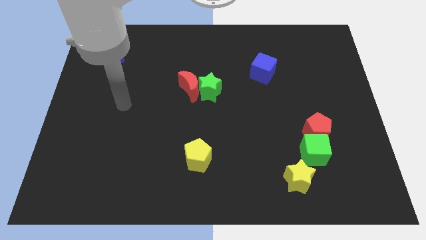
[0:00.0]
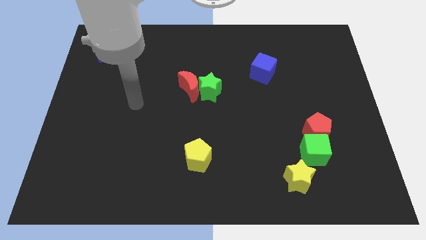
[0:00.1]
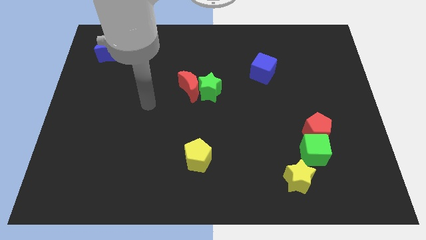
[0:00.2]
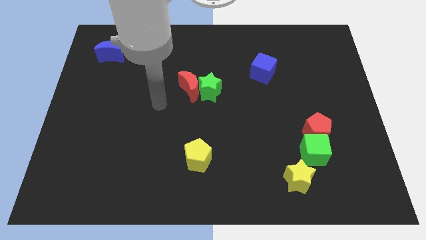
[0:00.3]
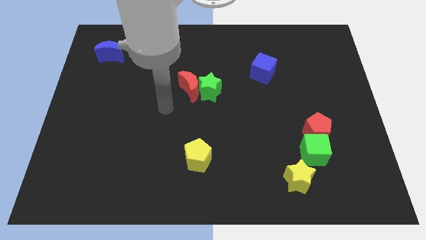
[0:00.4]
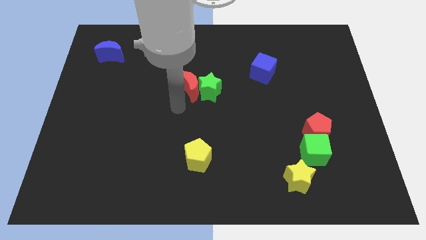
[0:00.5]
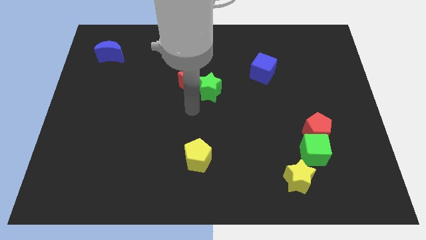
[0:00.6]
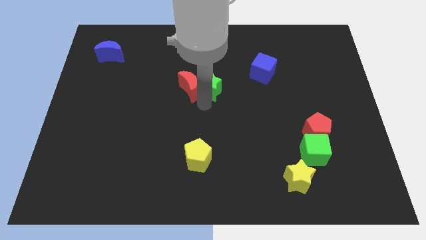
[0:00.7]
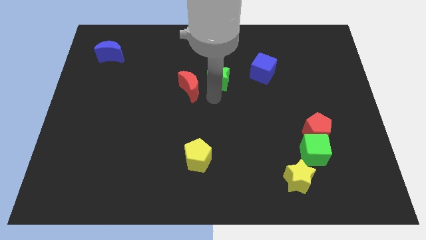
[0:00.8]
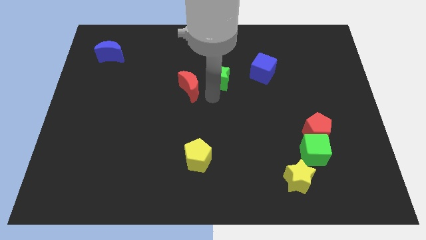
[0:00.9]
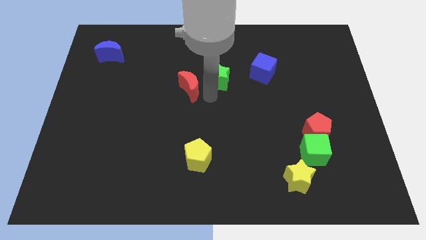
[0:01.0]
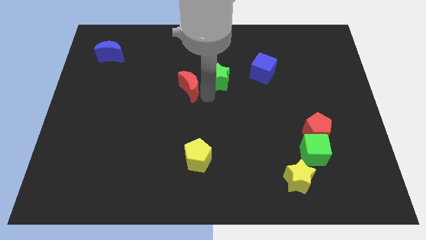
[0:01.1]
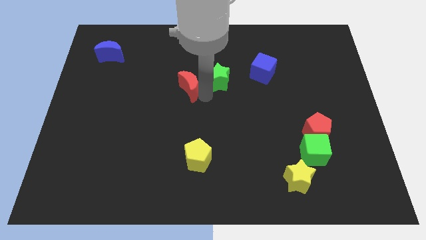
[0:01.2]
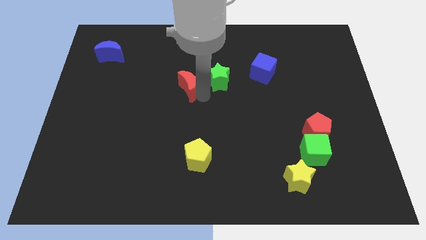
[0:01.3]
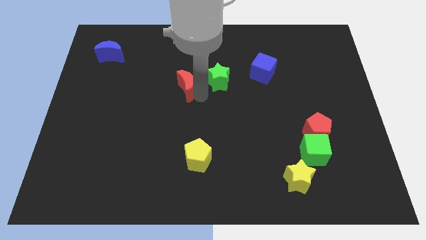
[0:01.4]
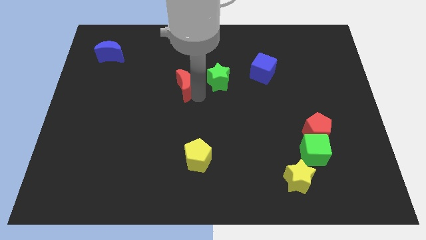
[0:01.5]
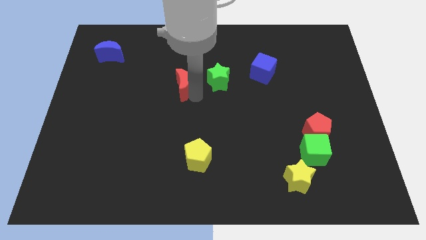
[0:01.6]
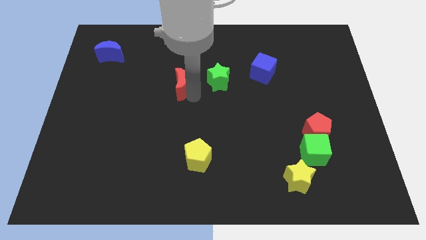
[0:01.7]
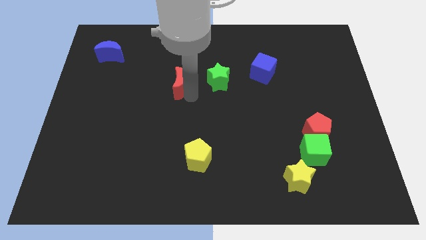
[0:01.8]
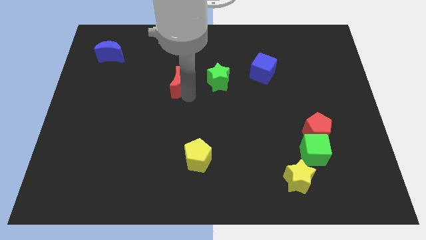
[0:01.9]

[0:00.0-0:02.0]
move the red moon away from the green star

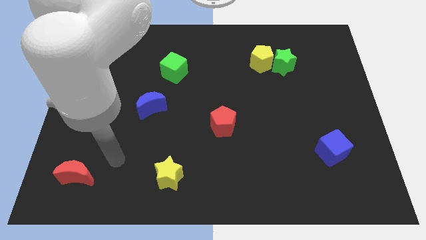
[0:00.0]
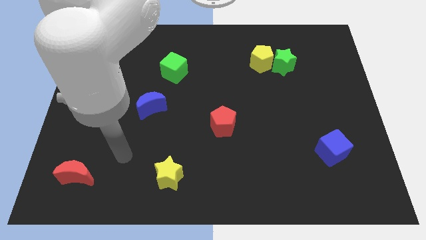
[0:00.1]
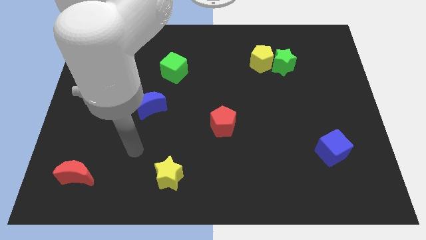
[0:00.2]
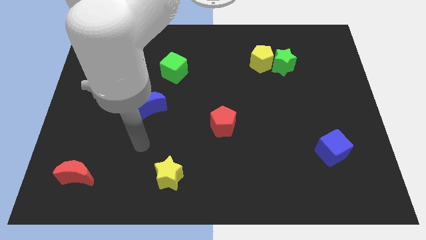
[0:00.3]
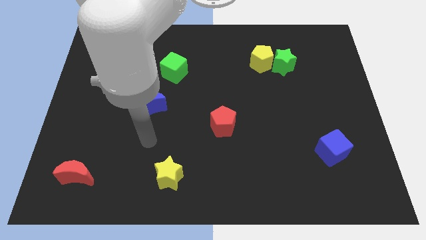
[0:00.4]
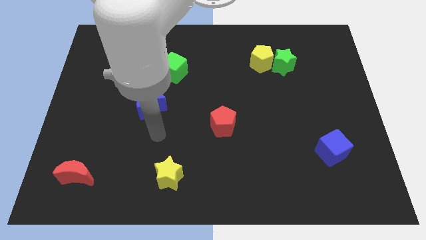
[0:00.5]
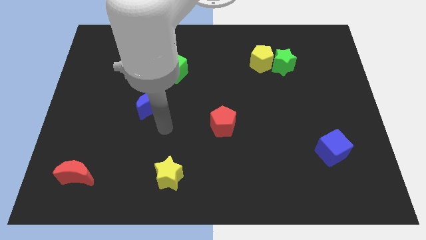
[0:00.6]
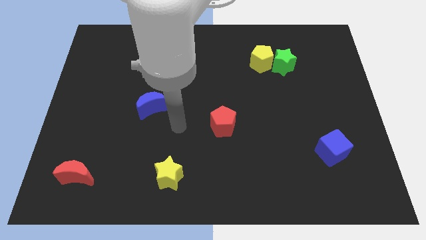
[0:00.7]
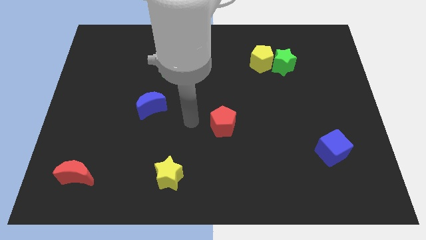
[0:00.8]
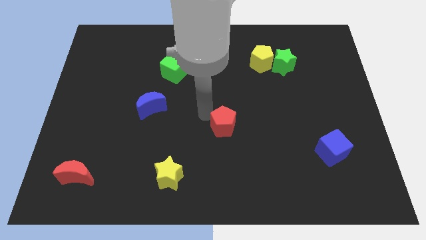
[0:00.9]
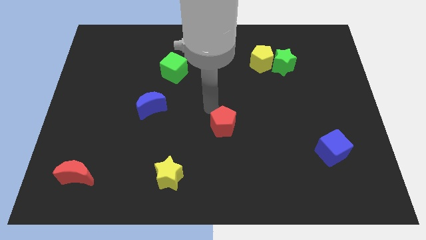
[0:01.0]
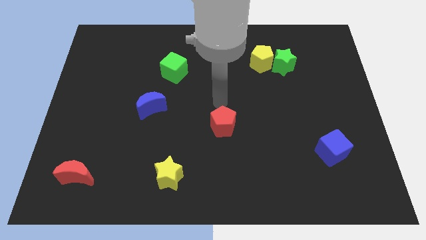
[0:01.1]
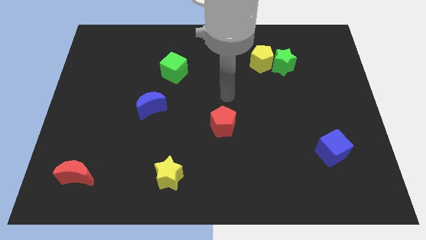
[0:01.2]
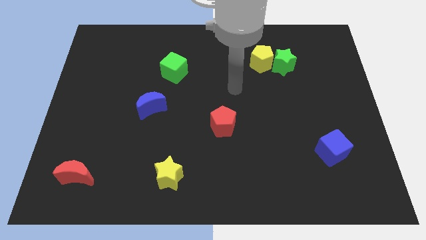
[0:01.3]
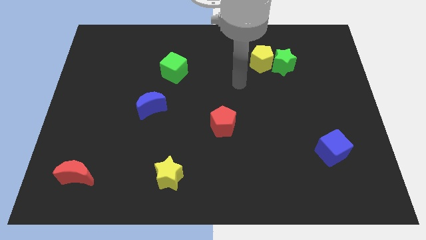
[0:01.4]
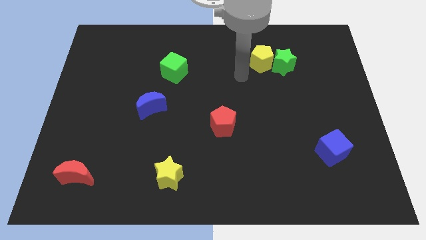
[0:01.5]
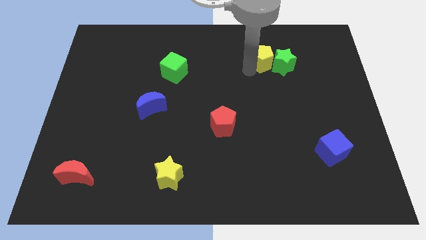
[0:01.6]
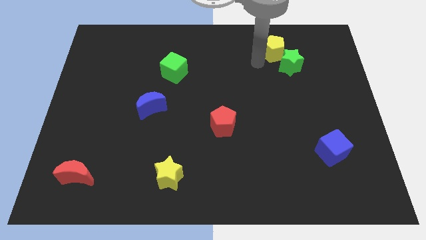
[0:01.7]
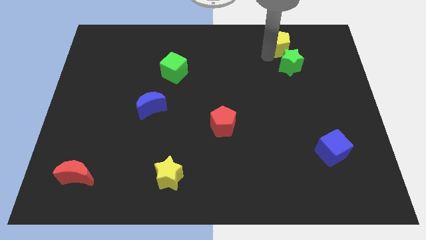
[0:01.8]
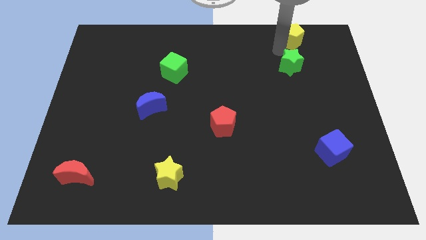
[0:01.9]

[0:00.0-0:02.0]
separate the green star from the yellow pentagon

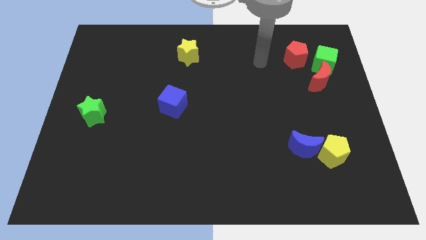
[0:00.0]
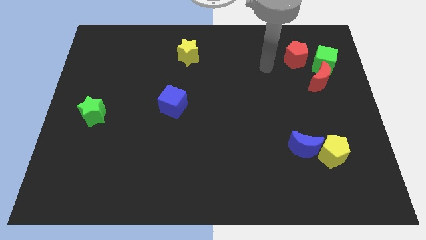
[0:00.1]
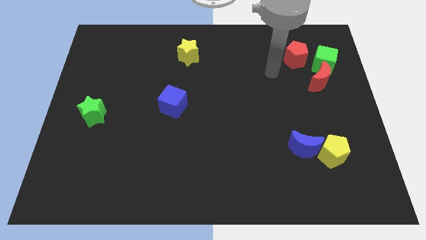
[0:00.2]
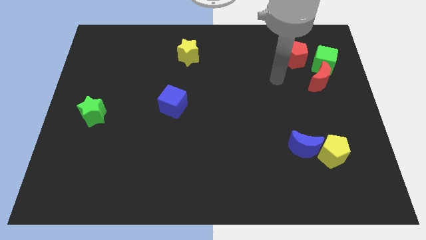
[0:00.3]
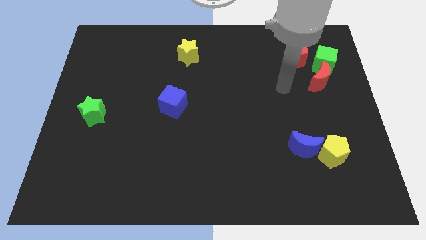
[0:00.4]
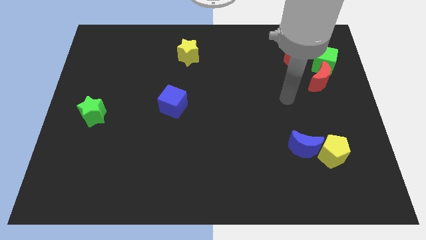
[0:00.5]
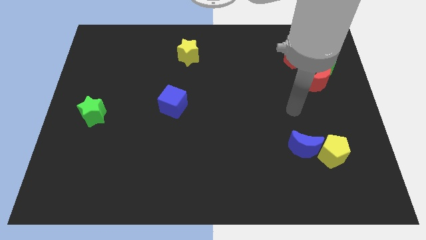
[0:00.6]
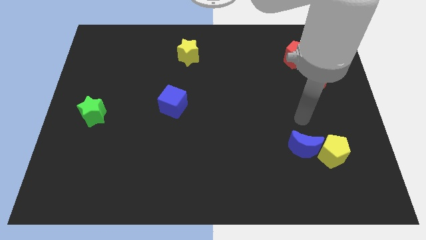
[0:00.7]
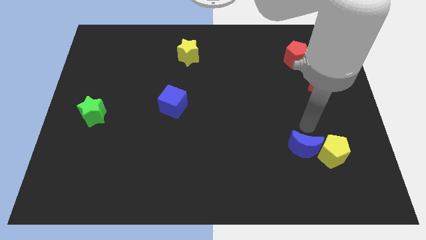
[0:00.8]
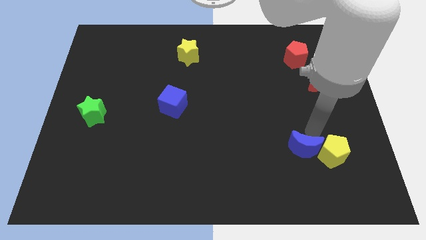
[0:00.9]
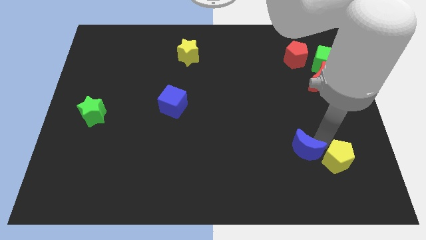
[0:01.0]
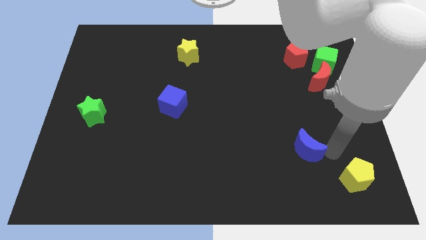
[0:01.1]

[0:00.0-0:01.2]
move the blue moon away from the yellow pentagon

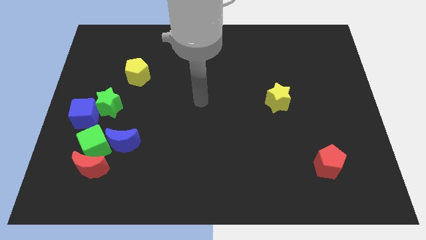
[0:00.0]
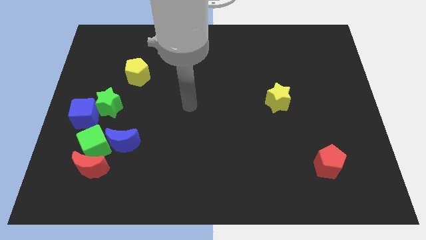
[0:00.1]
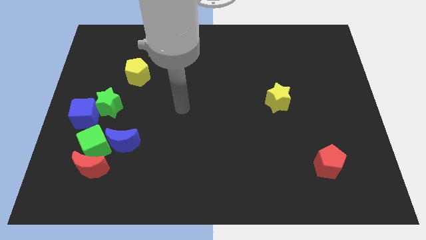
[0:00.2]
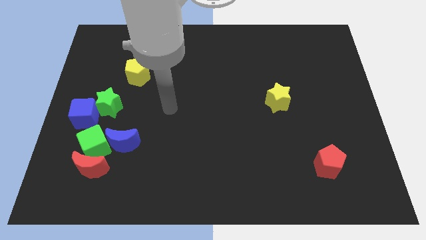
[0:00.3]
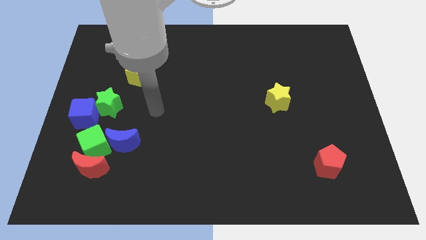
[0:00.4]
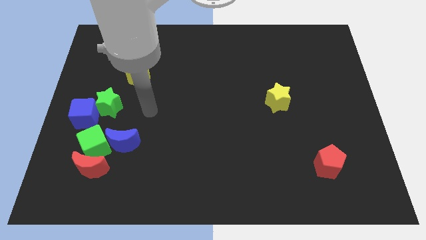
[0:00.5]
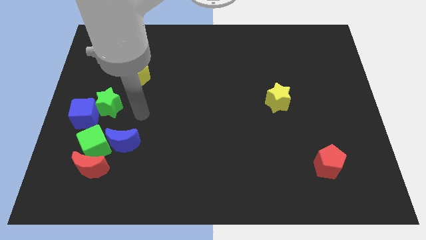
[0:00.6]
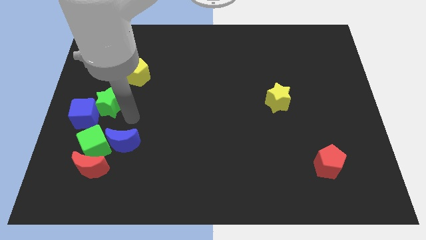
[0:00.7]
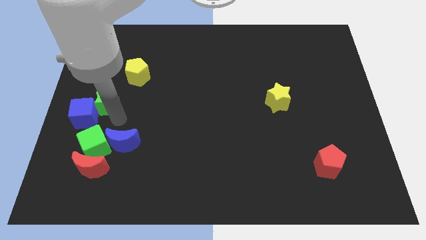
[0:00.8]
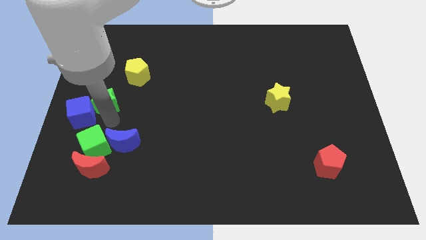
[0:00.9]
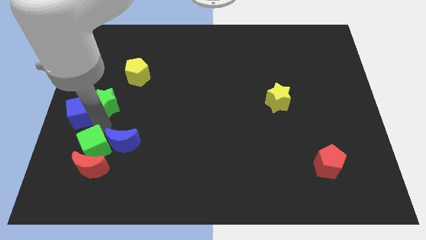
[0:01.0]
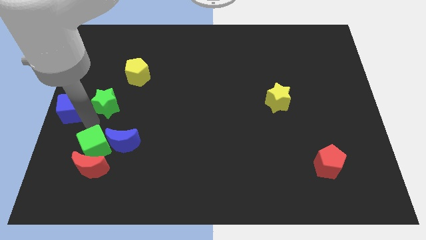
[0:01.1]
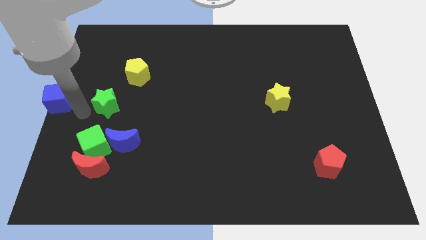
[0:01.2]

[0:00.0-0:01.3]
pull the green star apart from the blue cube

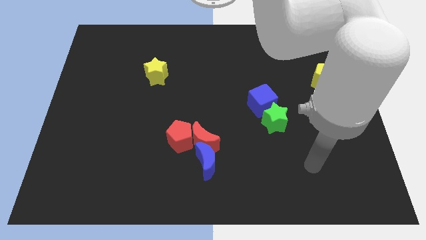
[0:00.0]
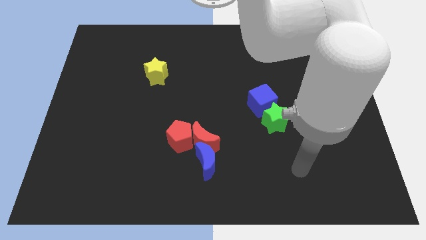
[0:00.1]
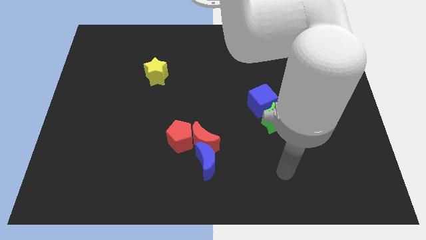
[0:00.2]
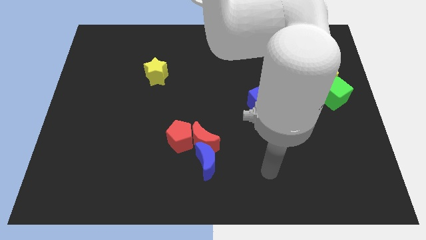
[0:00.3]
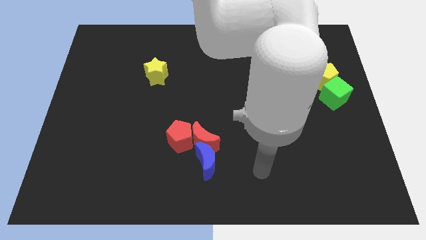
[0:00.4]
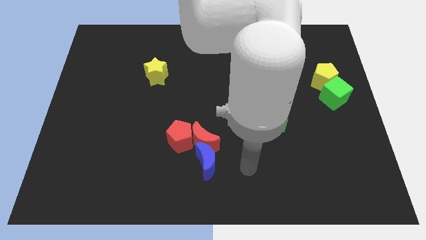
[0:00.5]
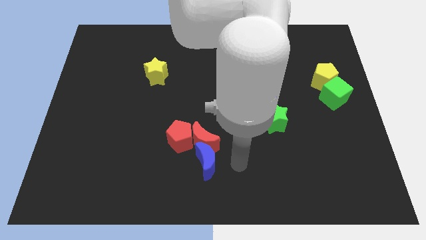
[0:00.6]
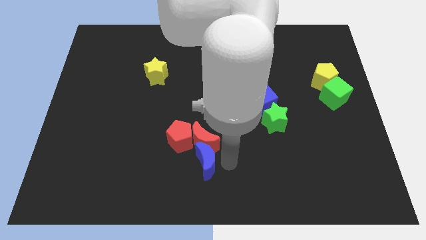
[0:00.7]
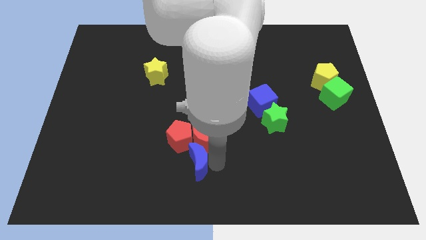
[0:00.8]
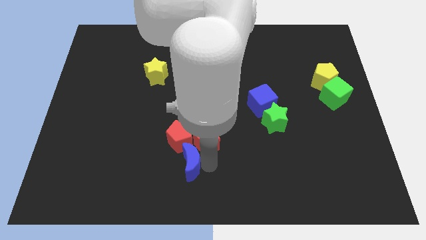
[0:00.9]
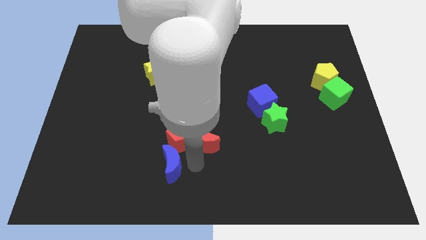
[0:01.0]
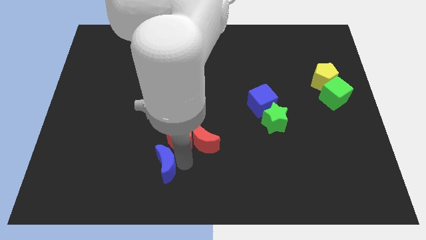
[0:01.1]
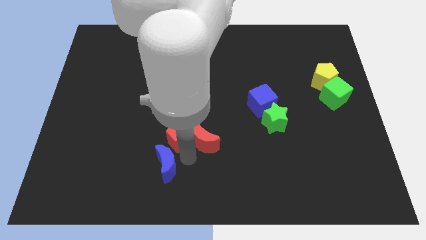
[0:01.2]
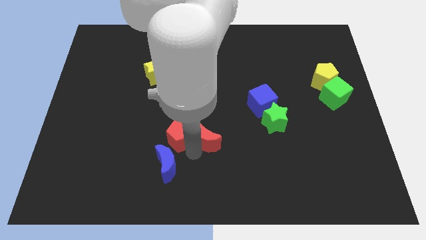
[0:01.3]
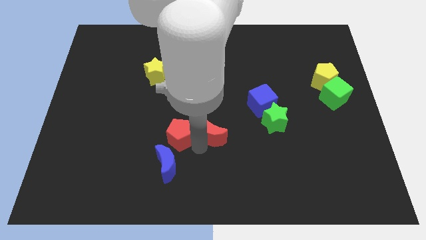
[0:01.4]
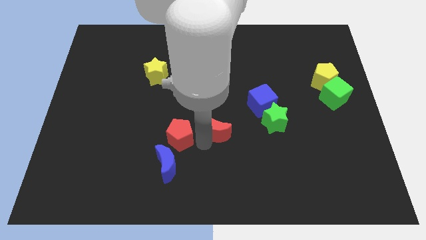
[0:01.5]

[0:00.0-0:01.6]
move the red moon away from the blue moon and red pentagon

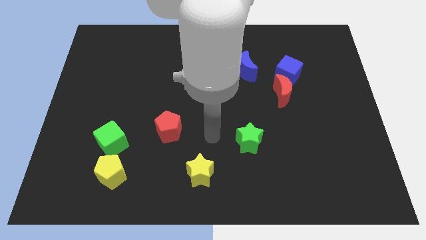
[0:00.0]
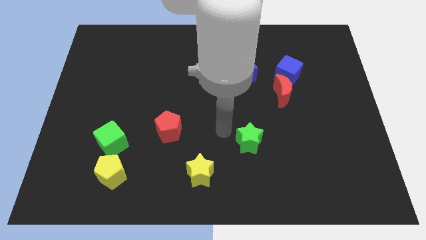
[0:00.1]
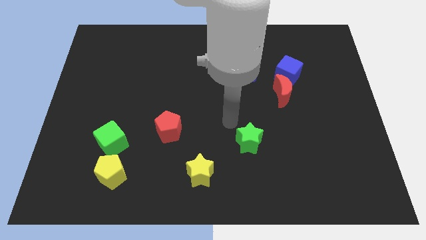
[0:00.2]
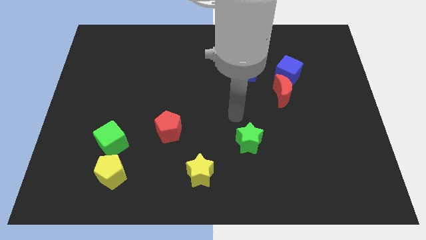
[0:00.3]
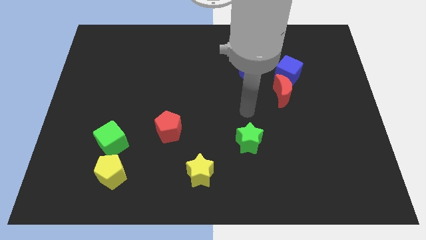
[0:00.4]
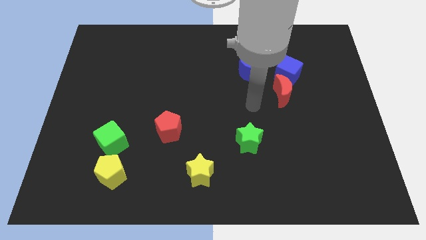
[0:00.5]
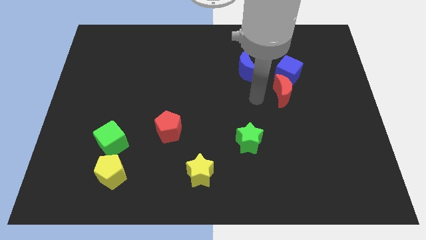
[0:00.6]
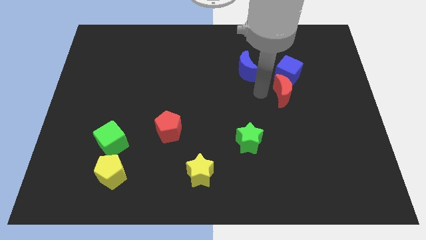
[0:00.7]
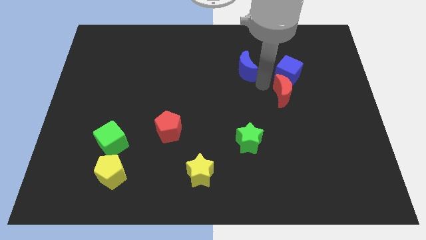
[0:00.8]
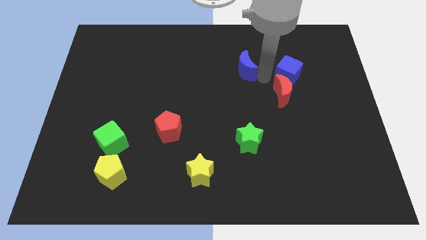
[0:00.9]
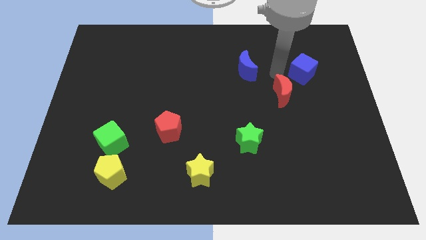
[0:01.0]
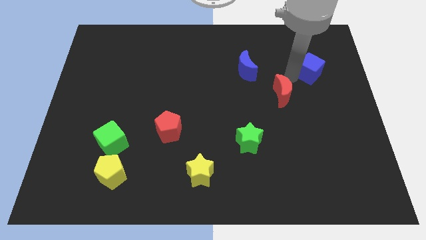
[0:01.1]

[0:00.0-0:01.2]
move the red moon away from the blue cube
